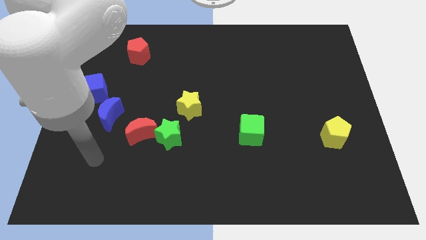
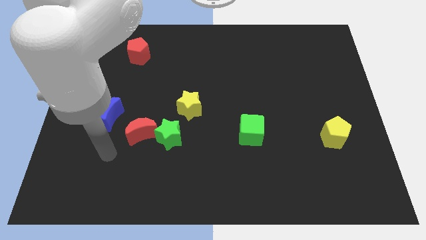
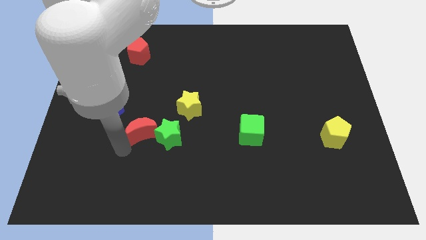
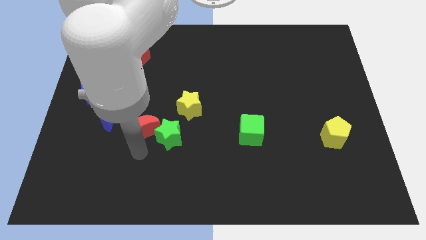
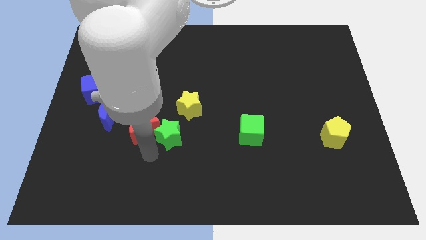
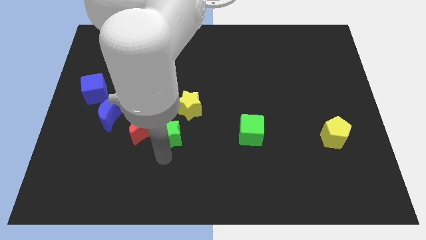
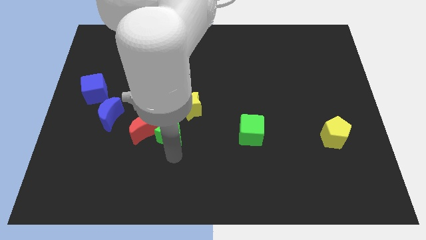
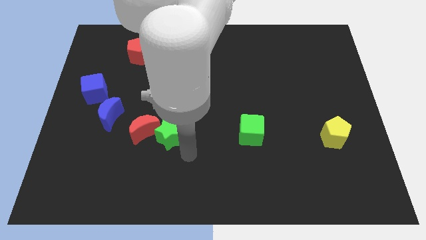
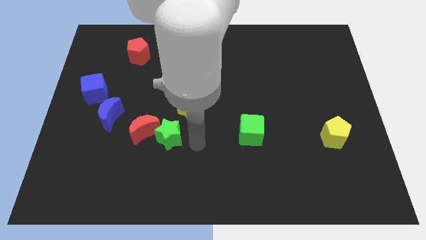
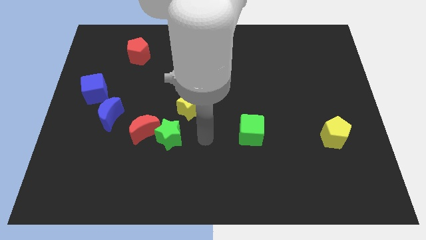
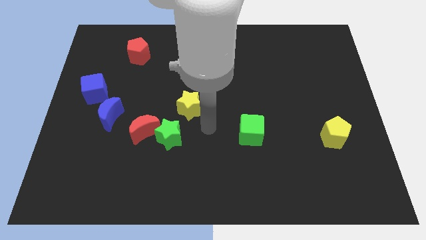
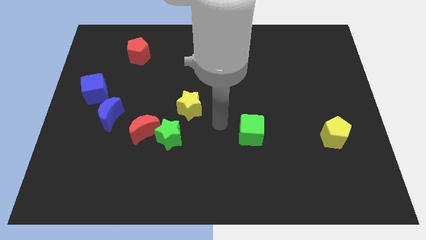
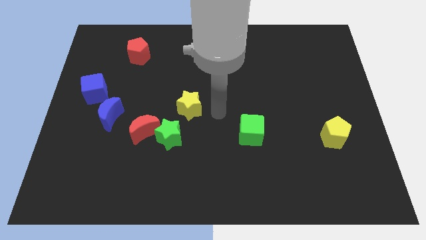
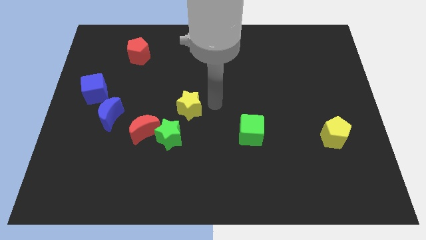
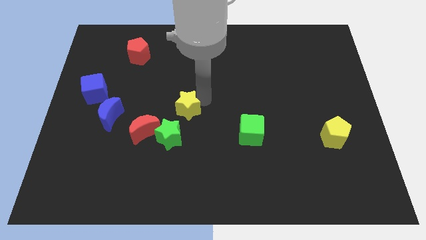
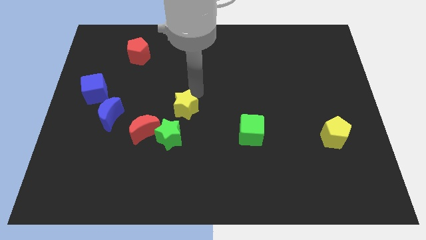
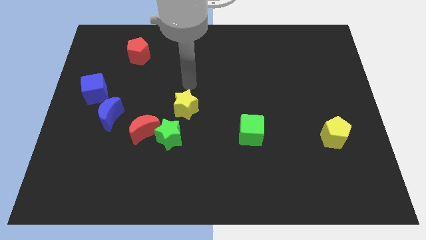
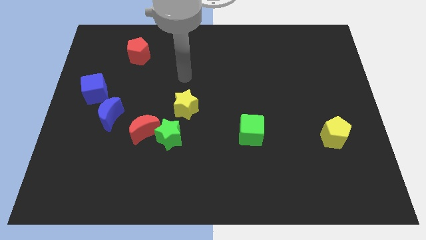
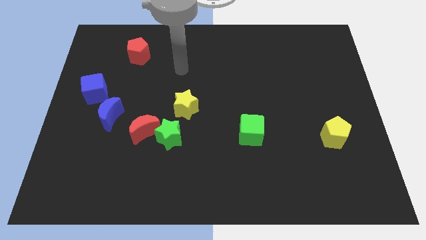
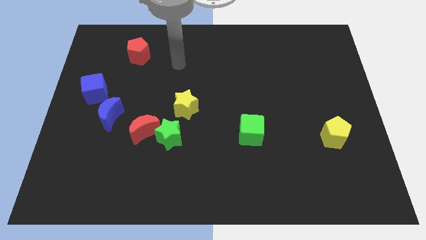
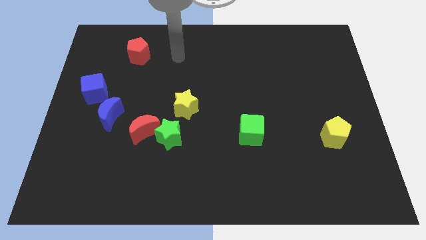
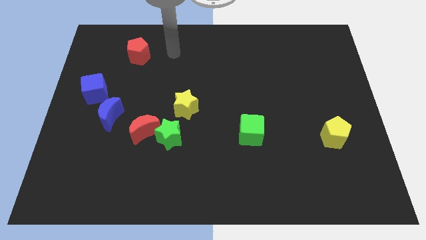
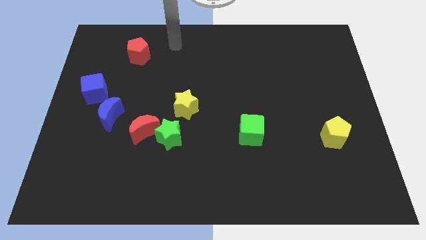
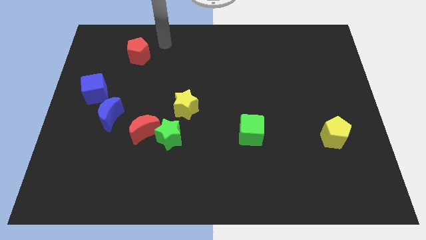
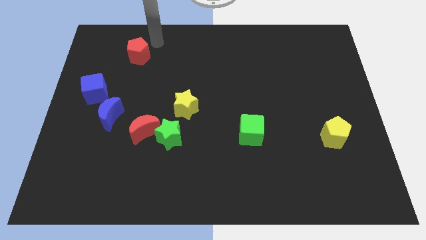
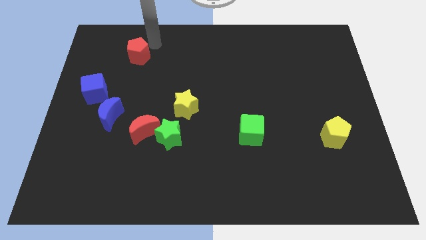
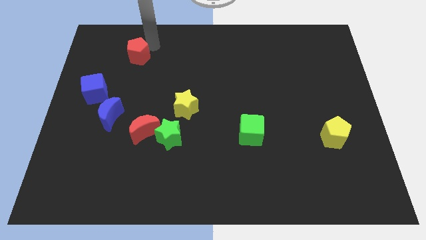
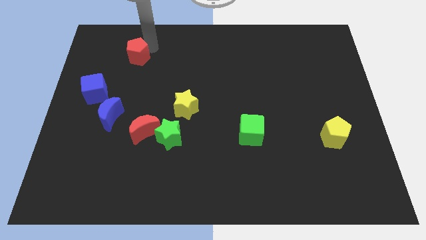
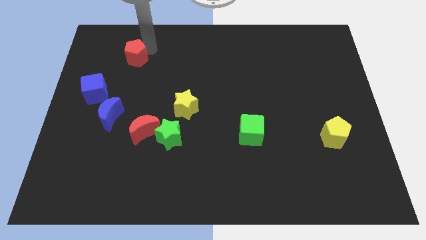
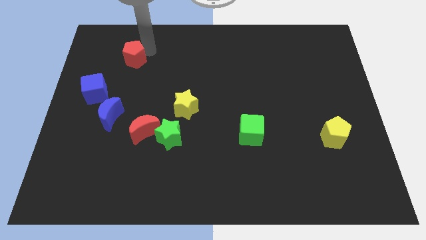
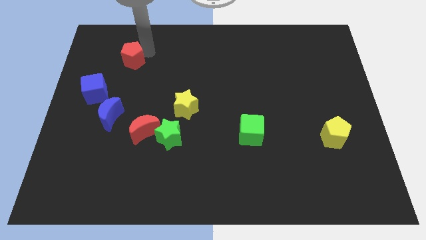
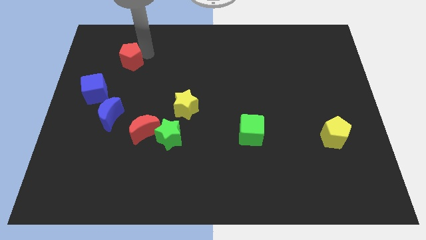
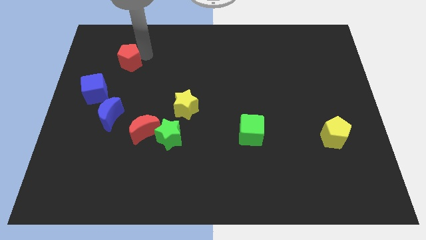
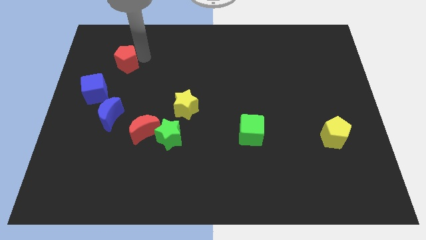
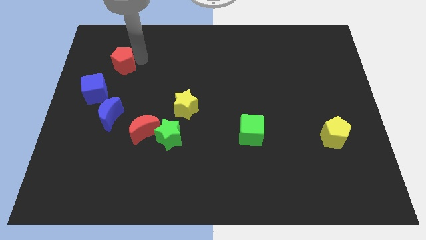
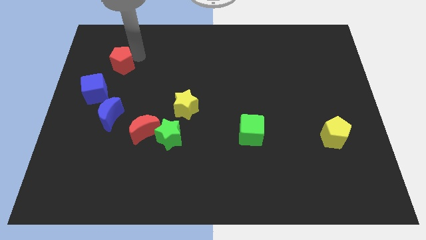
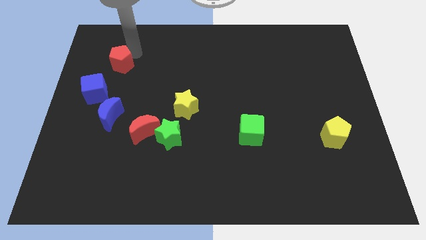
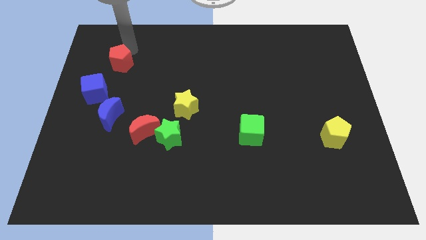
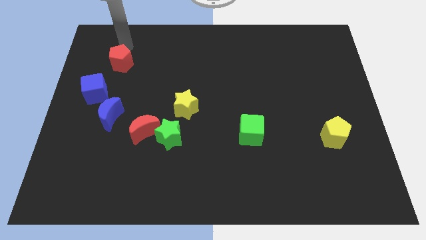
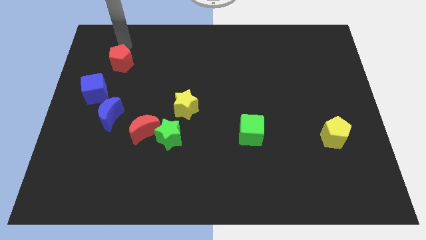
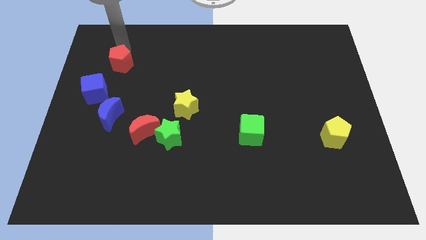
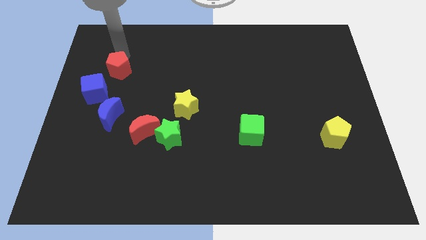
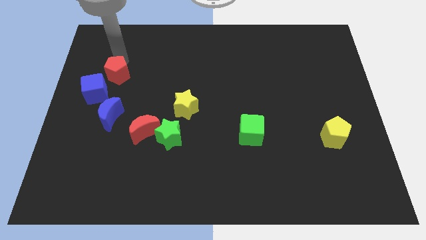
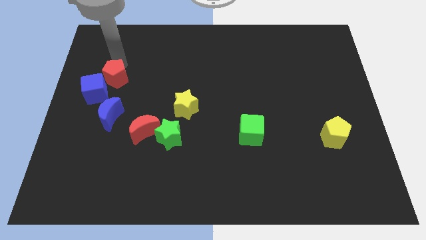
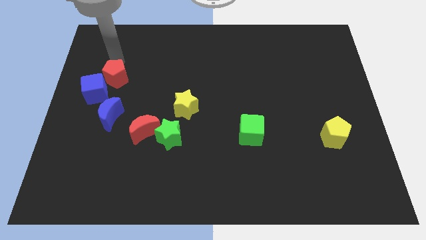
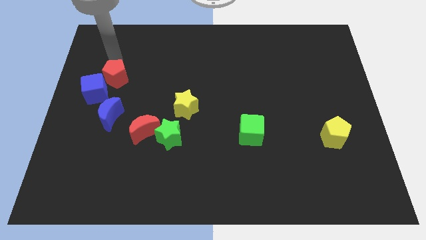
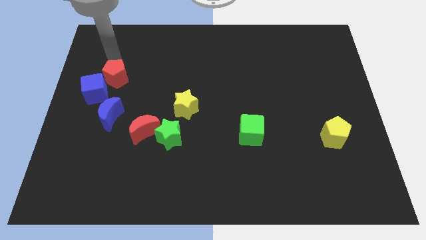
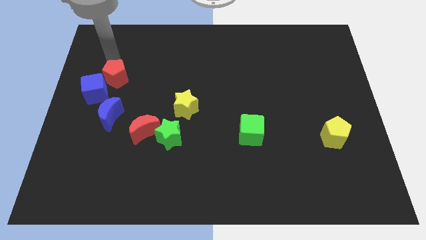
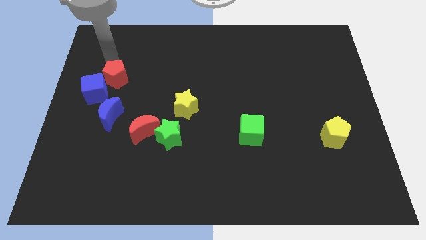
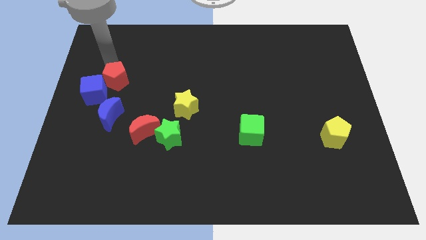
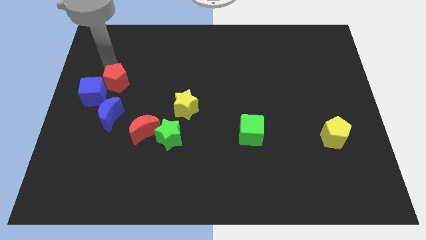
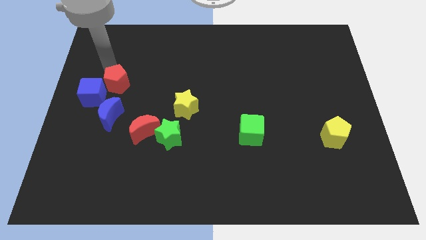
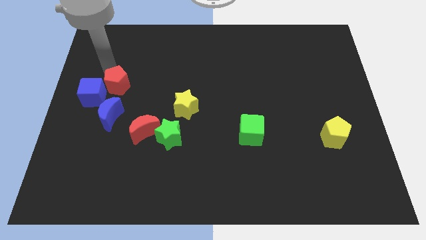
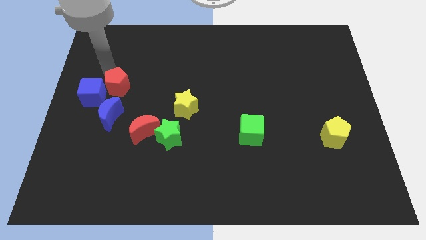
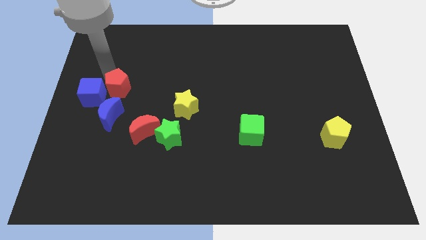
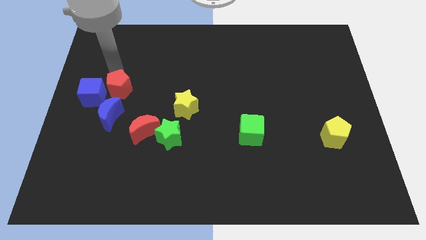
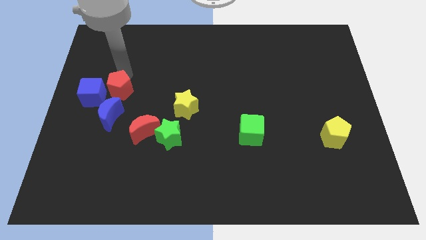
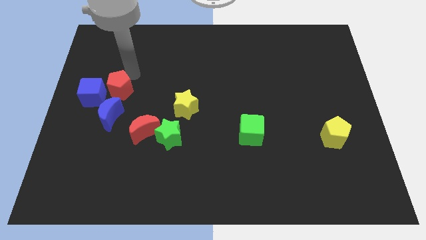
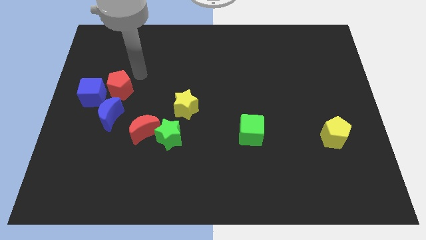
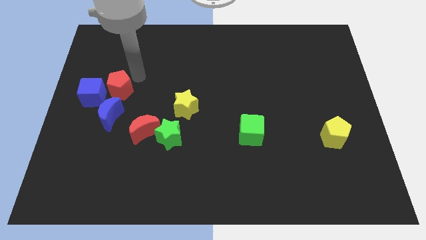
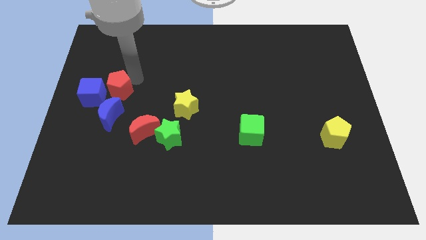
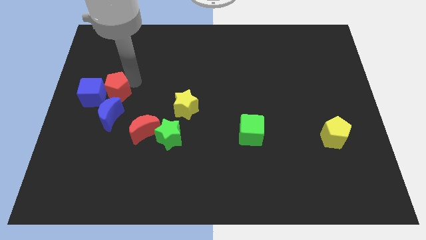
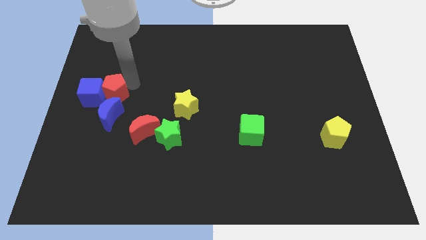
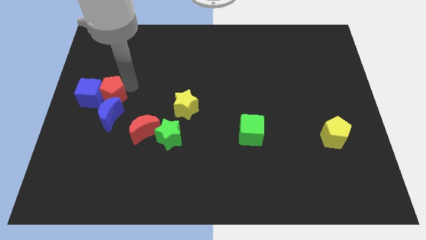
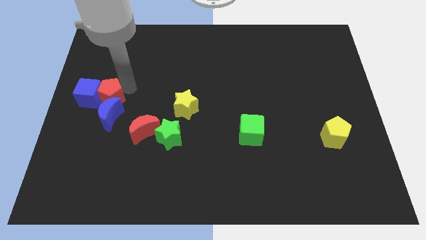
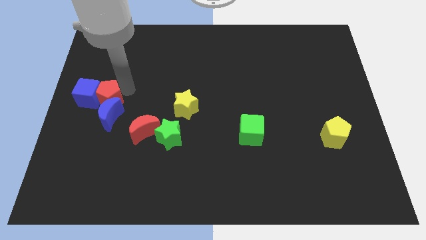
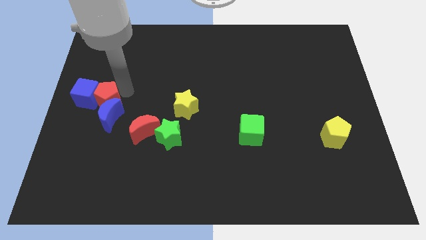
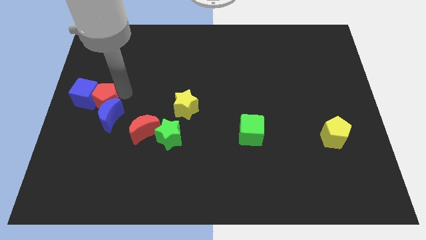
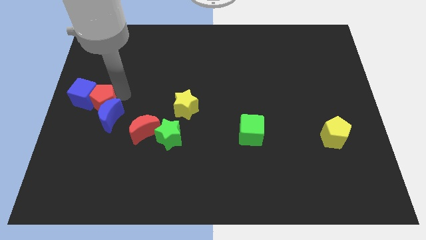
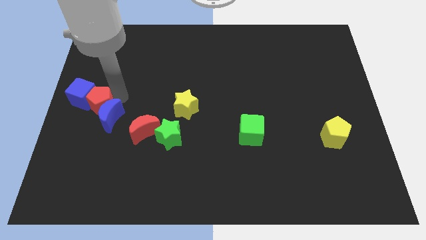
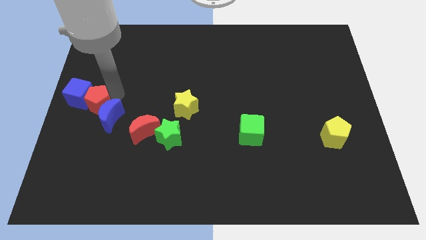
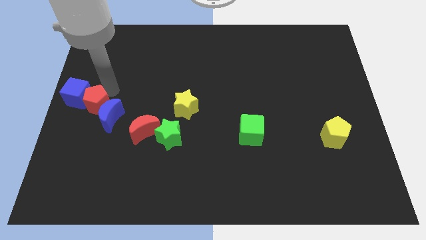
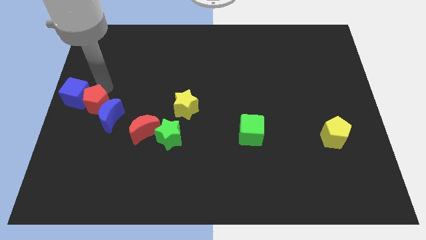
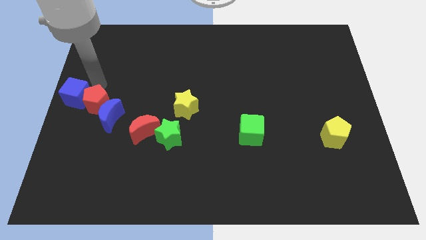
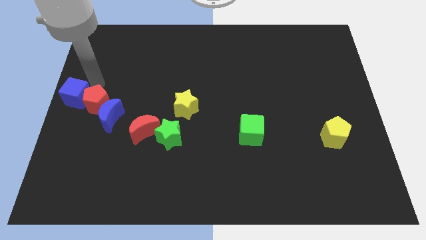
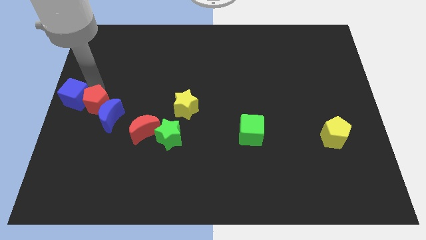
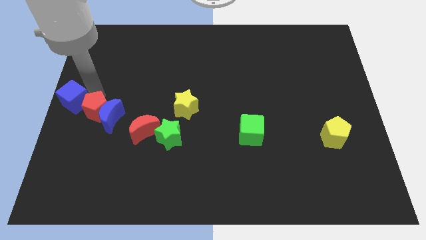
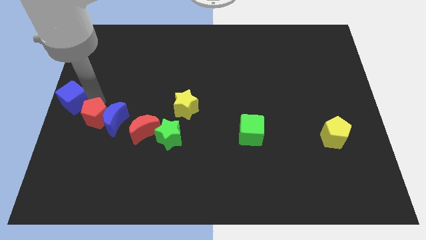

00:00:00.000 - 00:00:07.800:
slide the red pentagon to the left side of the red moon
